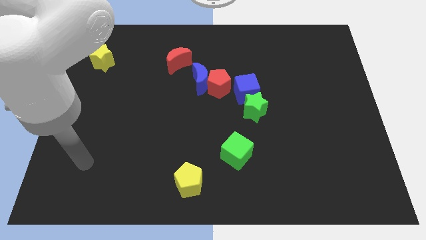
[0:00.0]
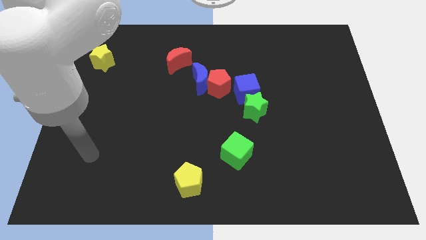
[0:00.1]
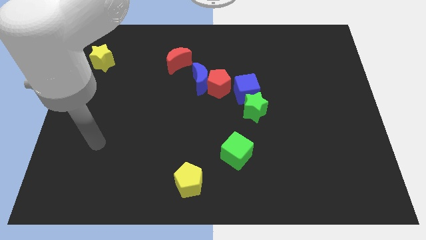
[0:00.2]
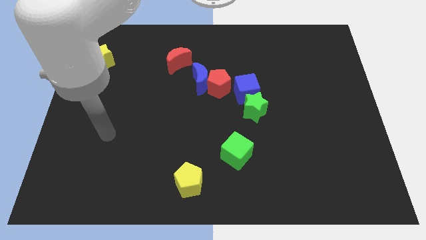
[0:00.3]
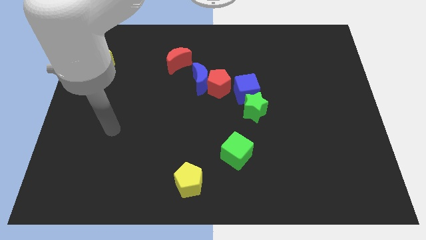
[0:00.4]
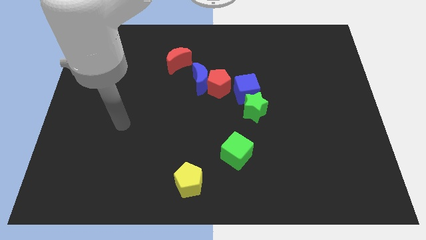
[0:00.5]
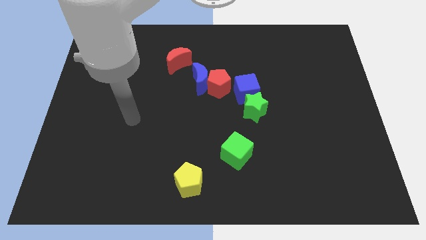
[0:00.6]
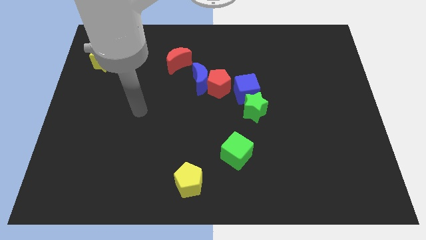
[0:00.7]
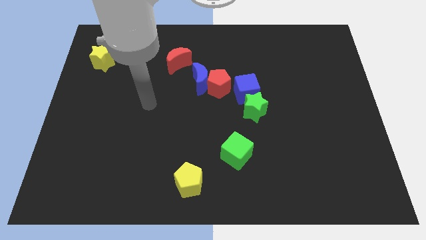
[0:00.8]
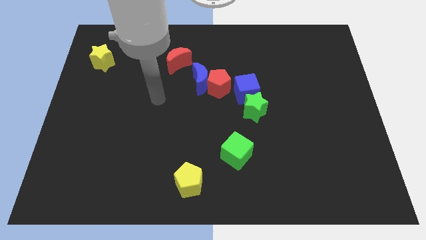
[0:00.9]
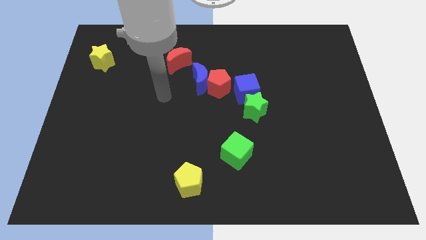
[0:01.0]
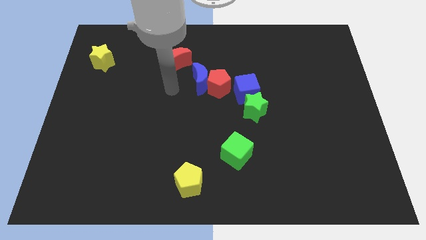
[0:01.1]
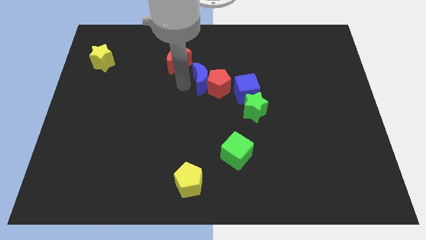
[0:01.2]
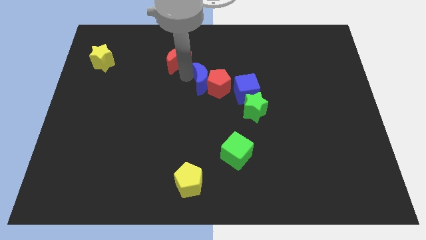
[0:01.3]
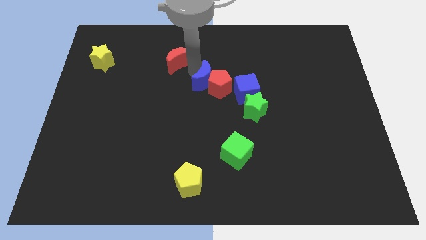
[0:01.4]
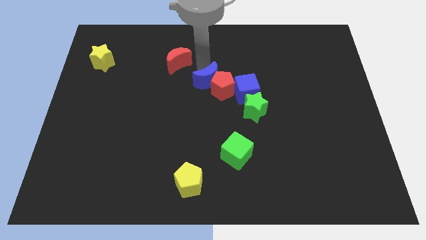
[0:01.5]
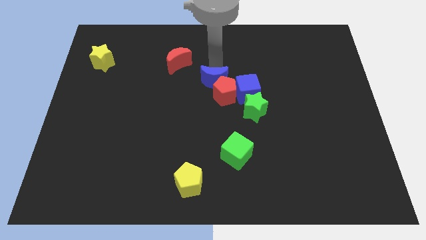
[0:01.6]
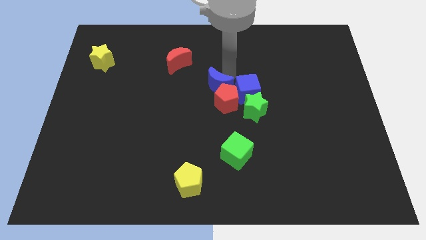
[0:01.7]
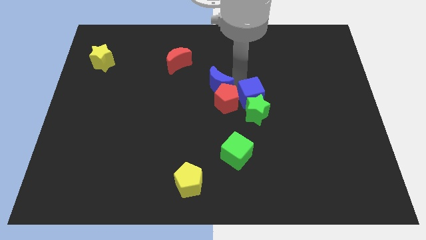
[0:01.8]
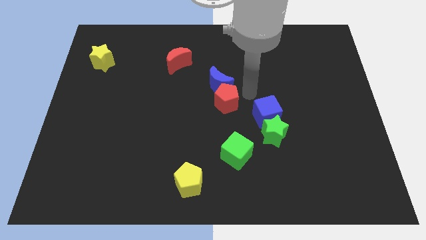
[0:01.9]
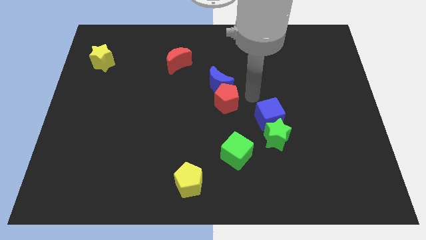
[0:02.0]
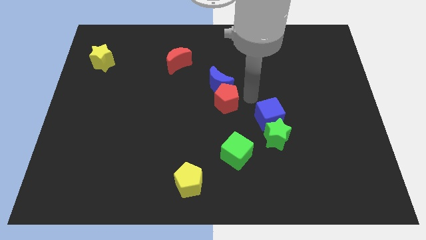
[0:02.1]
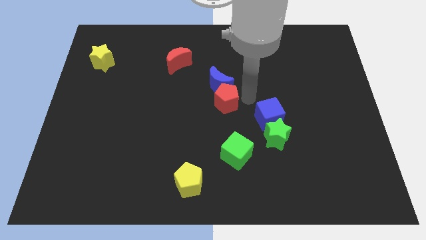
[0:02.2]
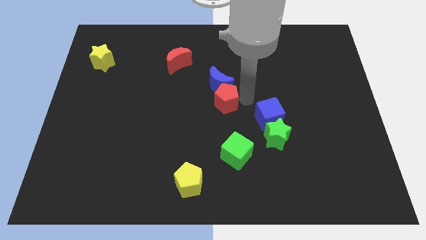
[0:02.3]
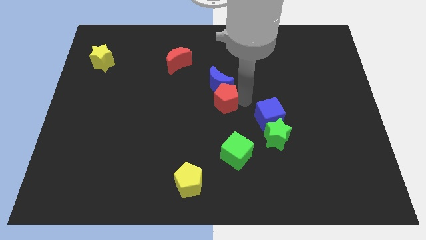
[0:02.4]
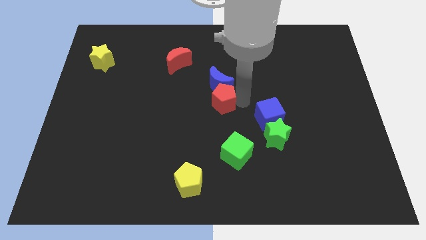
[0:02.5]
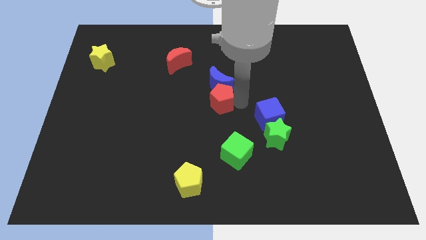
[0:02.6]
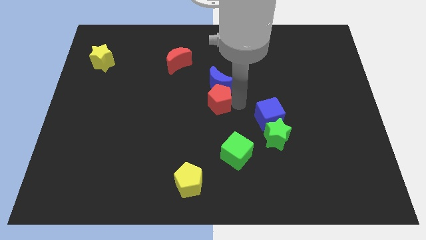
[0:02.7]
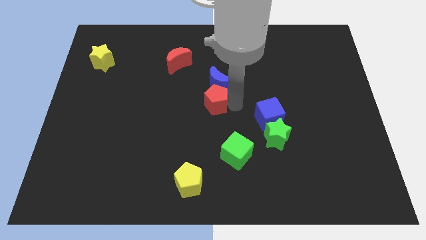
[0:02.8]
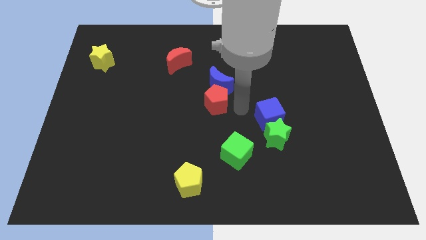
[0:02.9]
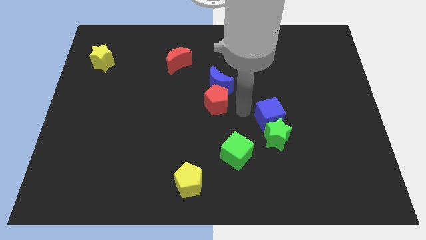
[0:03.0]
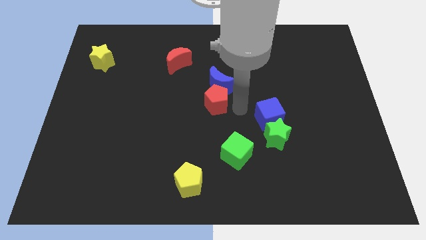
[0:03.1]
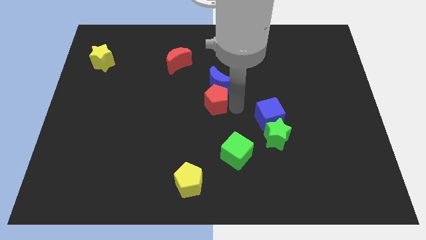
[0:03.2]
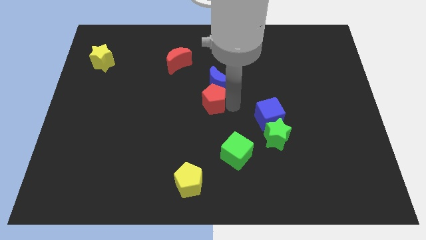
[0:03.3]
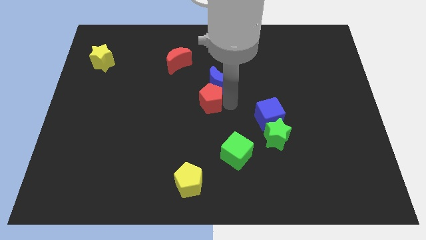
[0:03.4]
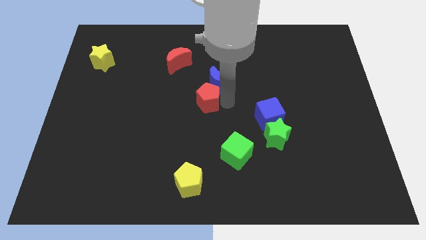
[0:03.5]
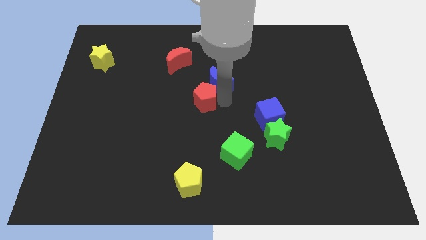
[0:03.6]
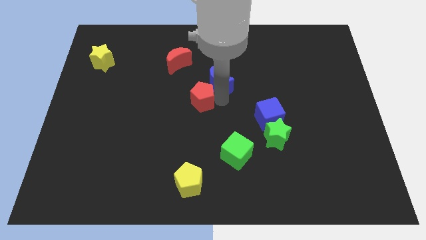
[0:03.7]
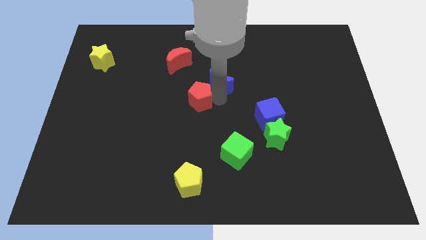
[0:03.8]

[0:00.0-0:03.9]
separate the red pentagon from the blue moon and blue cube

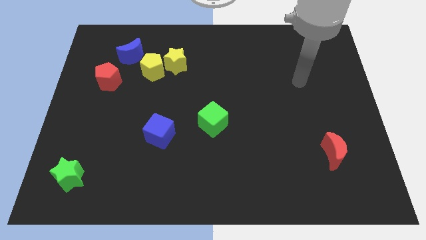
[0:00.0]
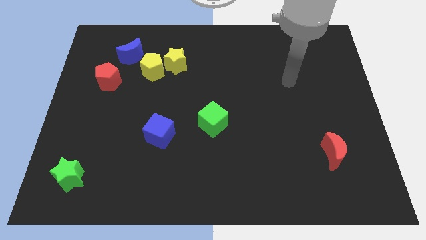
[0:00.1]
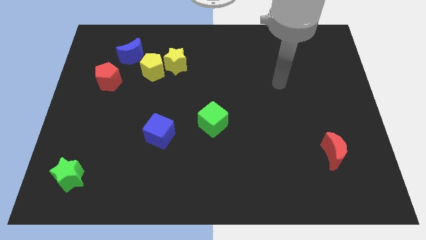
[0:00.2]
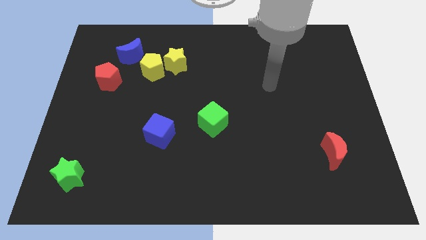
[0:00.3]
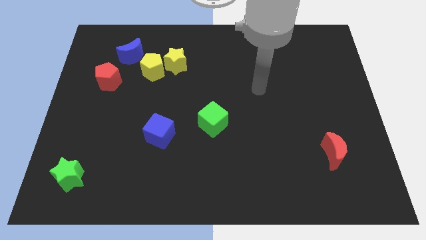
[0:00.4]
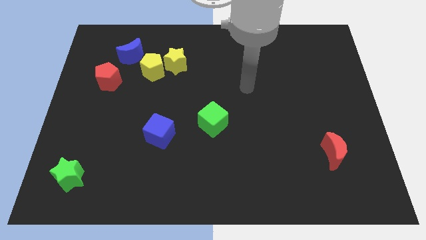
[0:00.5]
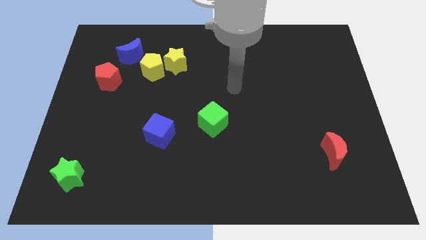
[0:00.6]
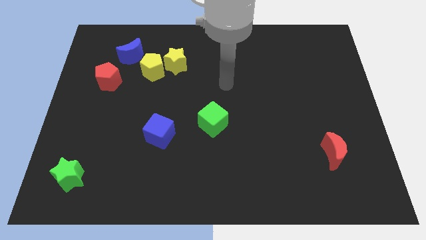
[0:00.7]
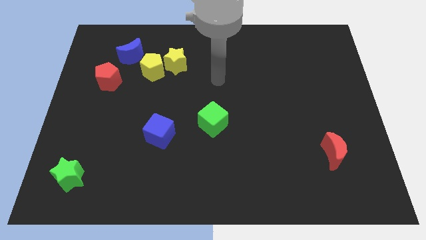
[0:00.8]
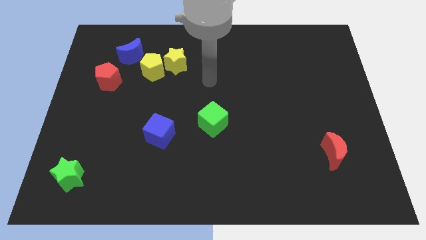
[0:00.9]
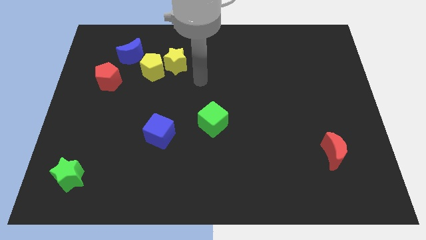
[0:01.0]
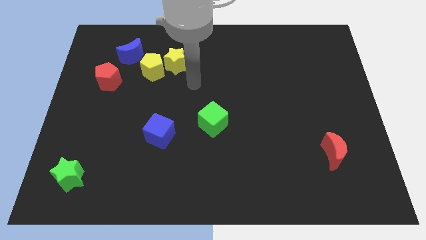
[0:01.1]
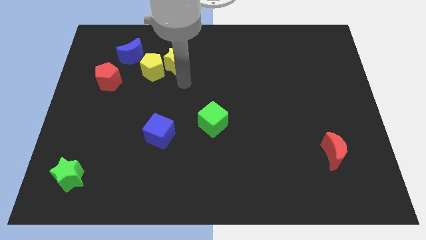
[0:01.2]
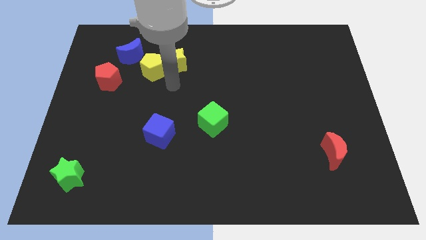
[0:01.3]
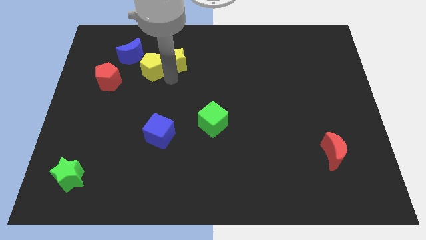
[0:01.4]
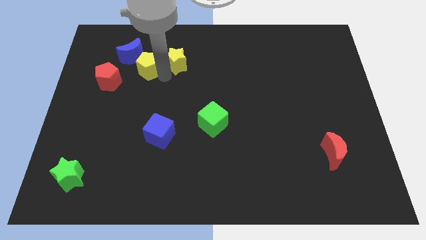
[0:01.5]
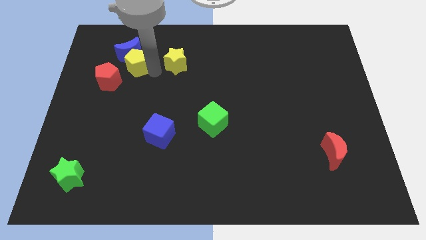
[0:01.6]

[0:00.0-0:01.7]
pull the yellow star apart from the yellow pentagon

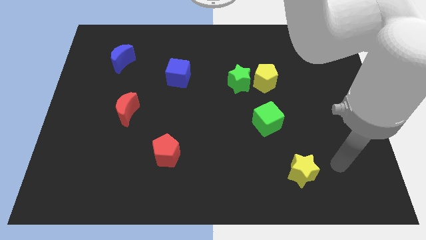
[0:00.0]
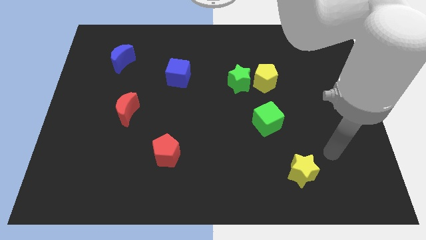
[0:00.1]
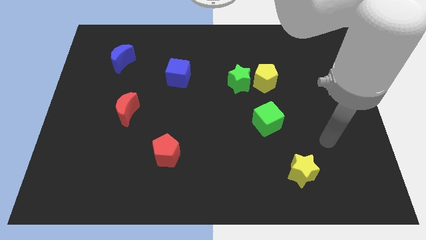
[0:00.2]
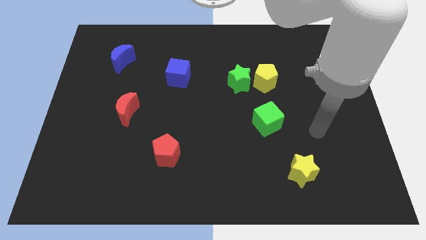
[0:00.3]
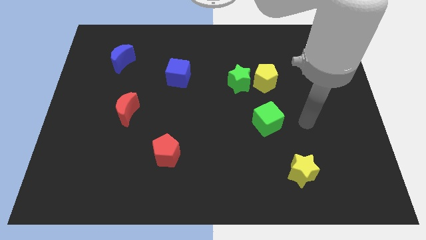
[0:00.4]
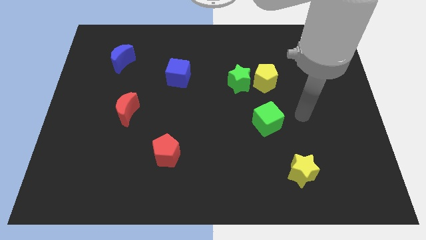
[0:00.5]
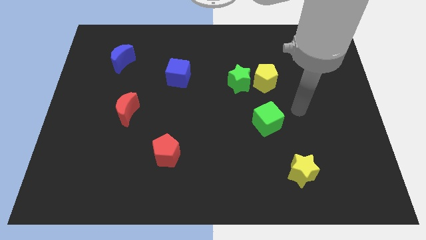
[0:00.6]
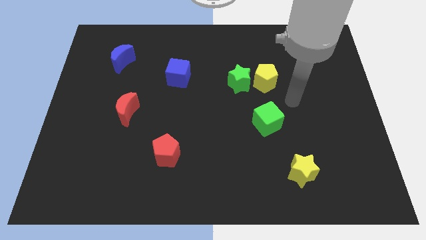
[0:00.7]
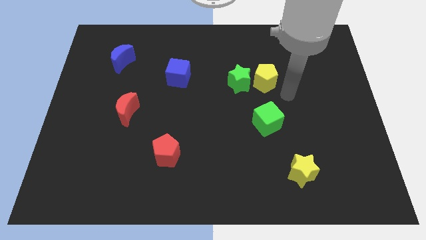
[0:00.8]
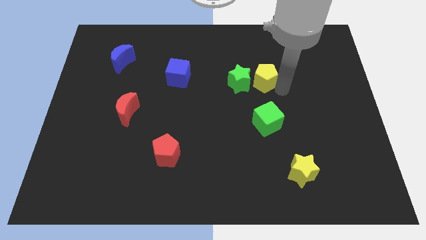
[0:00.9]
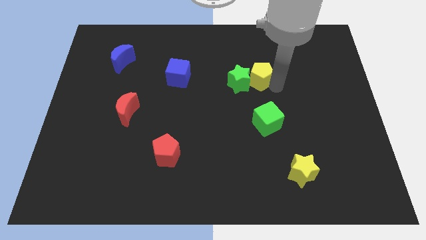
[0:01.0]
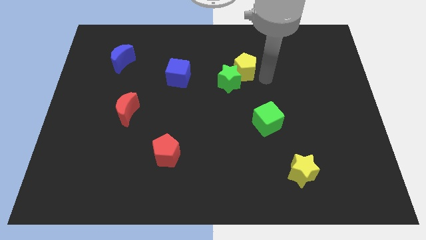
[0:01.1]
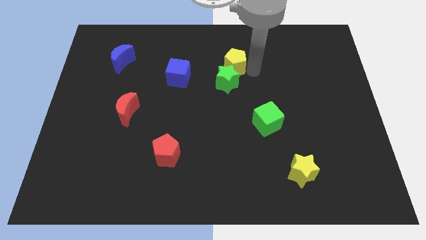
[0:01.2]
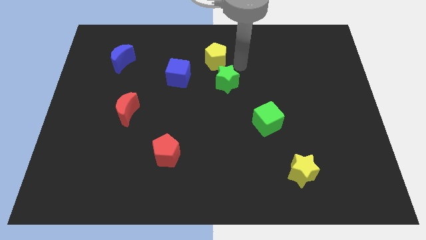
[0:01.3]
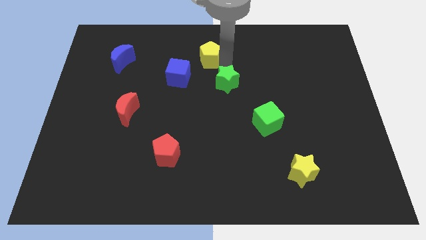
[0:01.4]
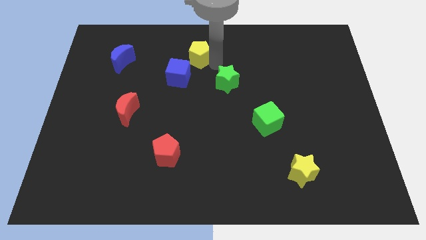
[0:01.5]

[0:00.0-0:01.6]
separate the green star from the yellow pentagon

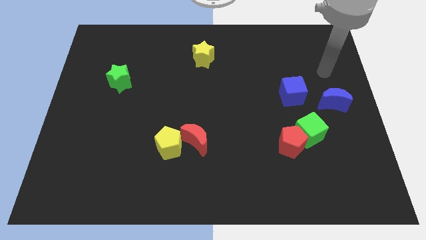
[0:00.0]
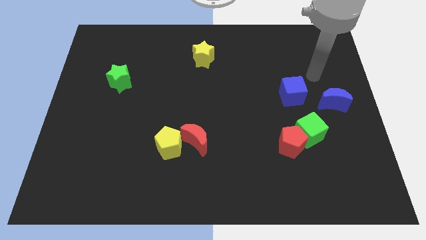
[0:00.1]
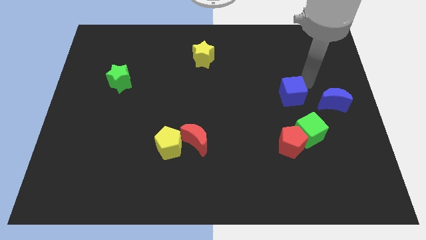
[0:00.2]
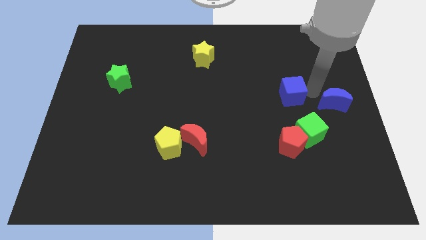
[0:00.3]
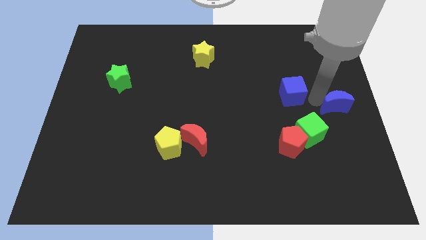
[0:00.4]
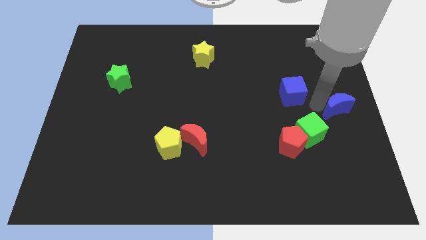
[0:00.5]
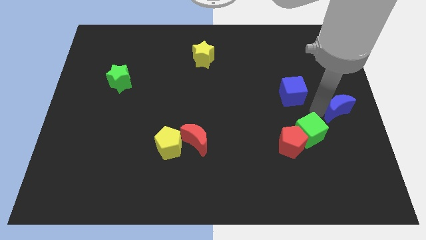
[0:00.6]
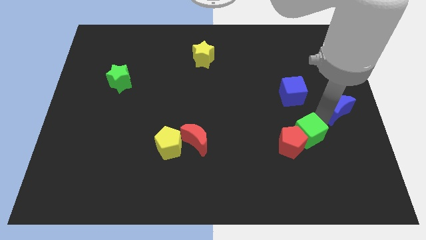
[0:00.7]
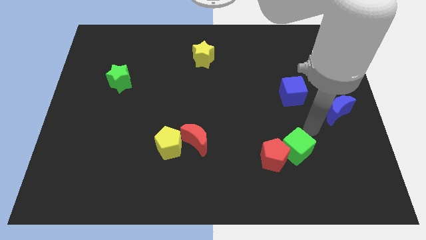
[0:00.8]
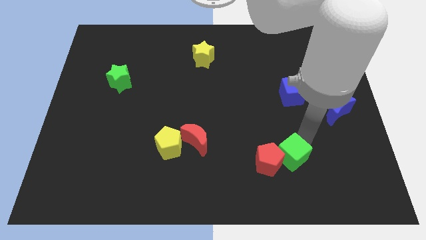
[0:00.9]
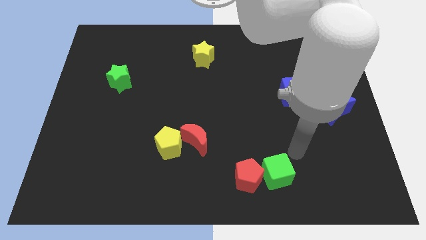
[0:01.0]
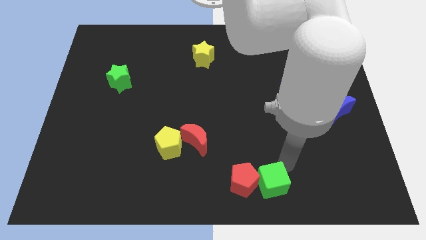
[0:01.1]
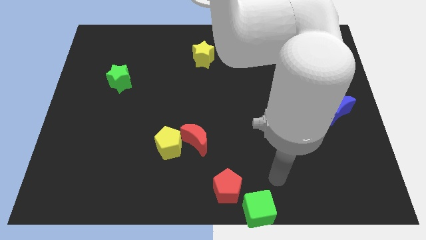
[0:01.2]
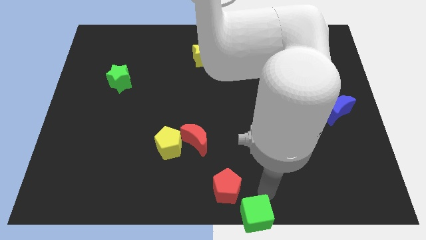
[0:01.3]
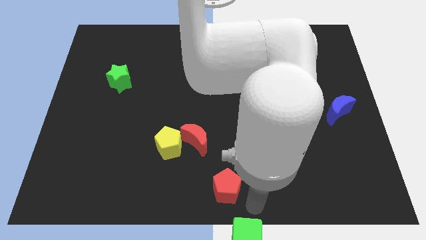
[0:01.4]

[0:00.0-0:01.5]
pull the red pentagon apart from the green cube

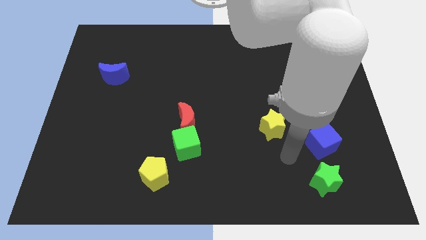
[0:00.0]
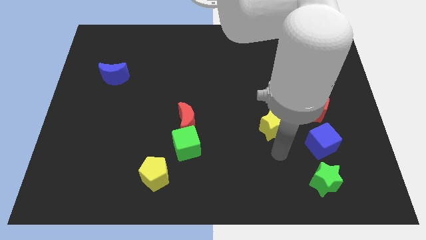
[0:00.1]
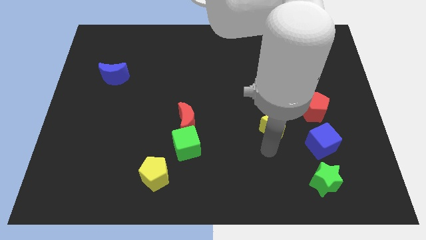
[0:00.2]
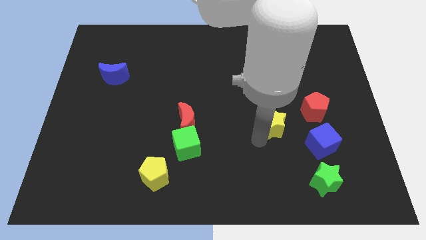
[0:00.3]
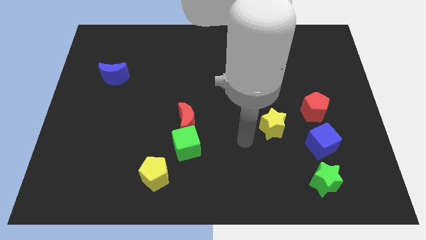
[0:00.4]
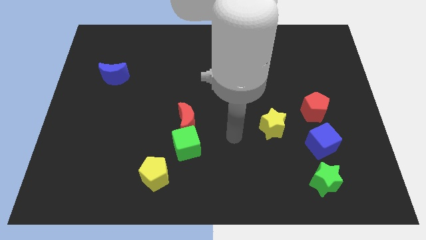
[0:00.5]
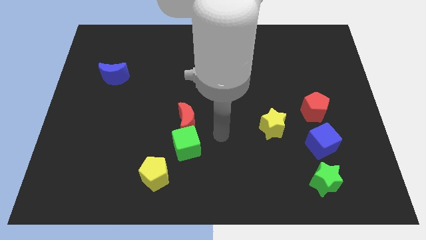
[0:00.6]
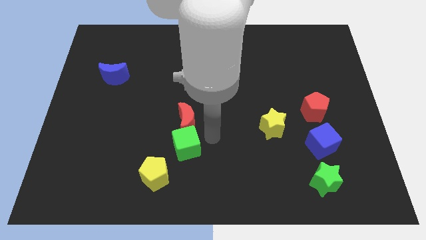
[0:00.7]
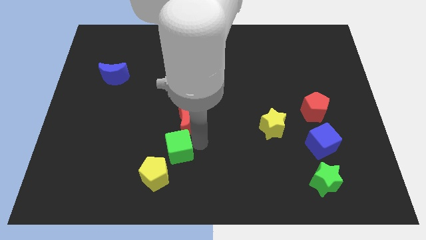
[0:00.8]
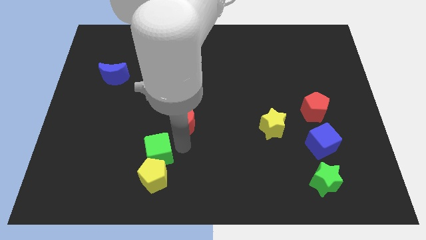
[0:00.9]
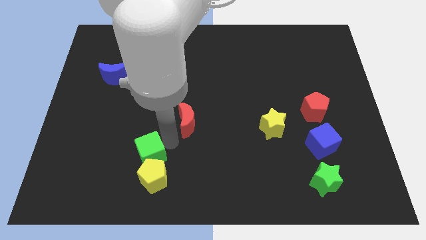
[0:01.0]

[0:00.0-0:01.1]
pull the red moon apart from the green cube
